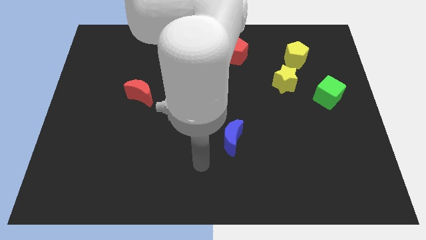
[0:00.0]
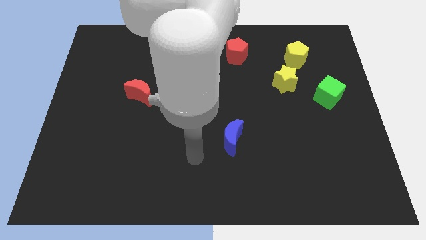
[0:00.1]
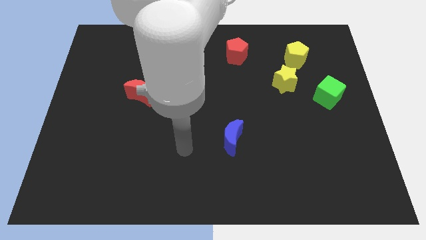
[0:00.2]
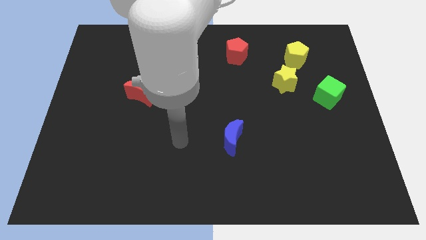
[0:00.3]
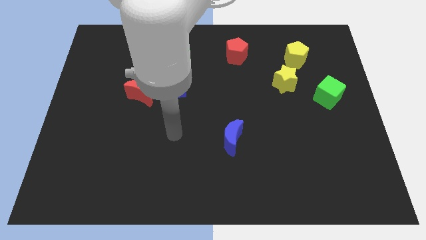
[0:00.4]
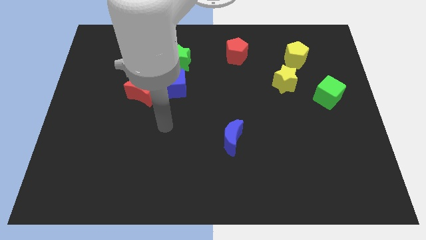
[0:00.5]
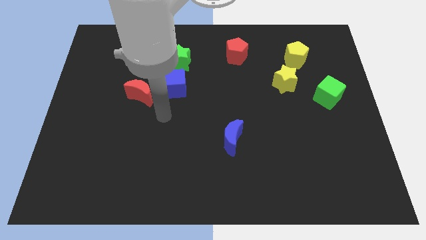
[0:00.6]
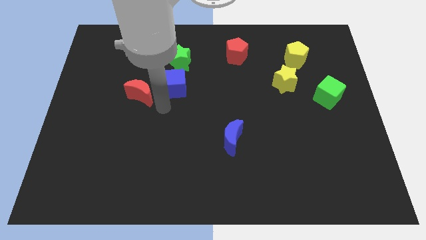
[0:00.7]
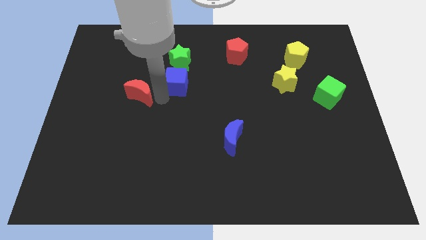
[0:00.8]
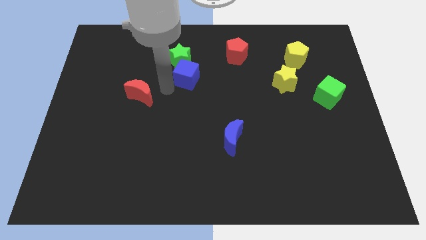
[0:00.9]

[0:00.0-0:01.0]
move the red moon away from the blue cube

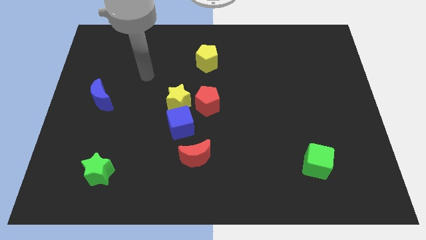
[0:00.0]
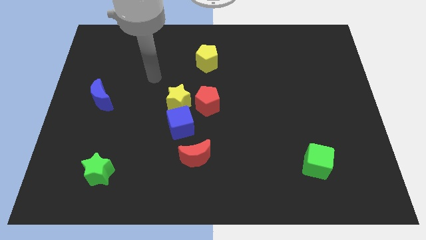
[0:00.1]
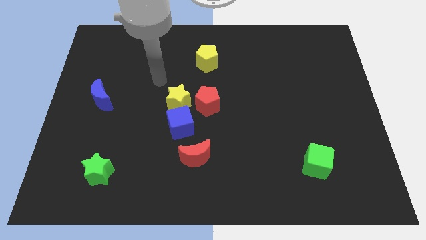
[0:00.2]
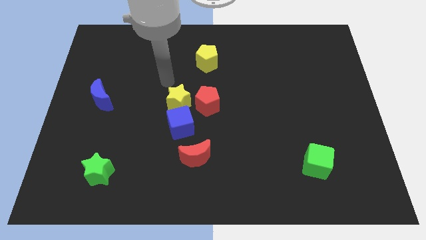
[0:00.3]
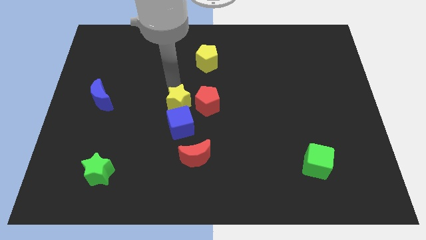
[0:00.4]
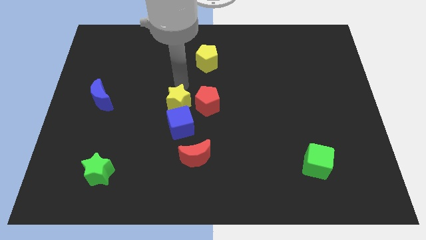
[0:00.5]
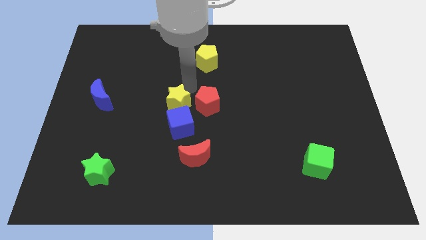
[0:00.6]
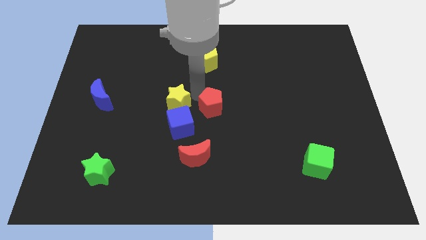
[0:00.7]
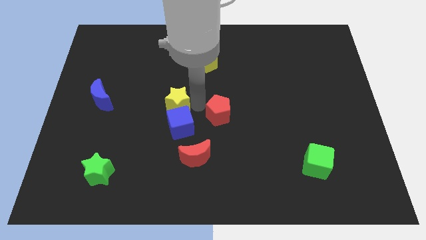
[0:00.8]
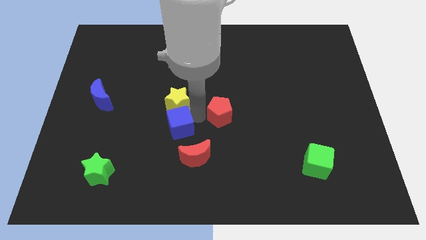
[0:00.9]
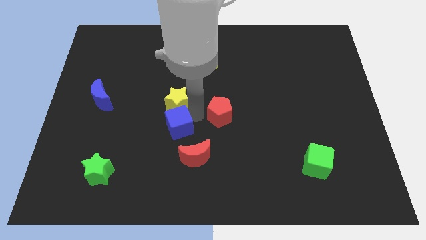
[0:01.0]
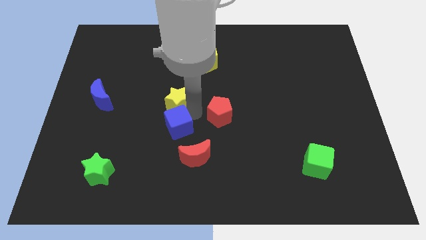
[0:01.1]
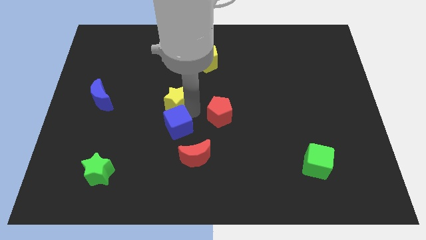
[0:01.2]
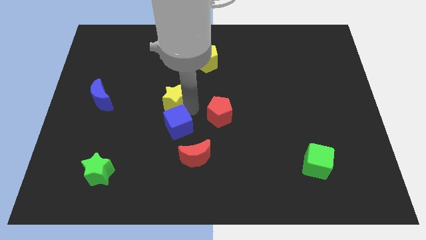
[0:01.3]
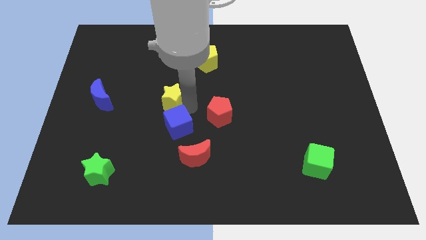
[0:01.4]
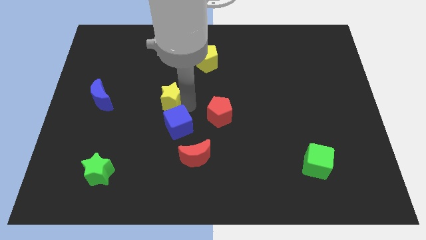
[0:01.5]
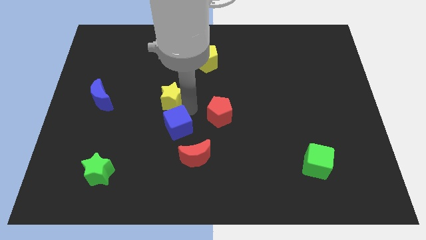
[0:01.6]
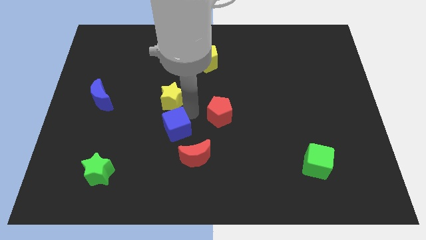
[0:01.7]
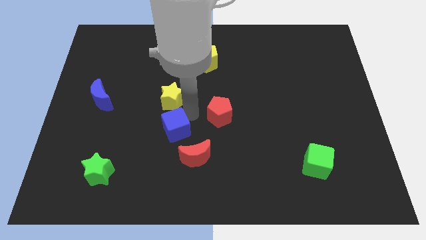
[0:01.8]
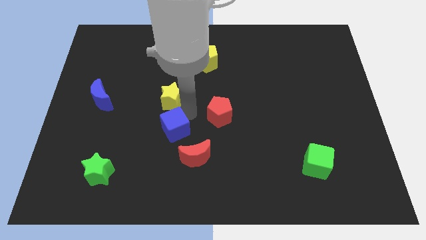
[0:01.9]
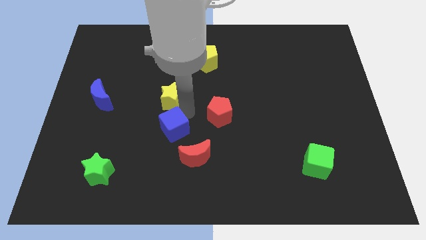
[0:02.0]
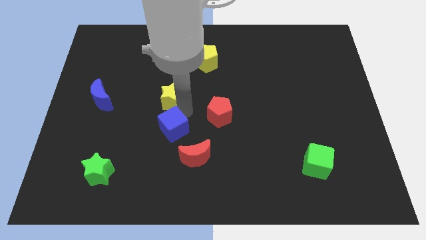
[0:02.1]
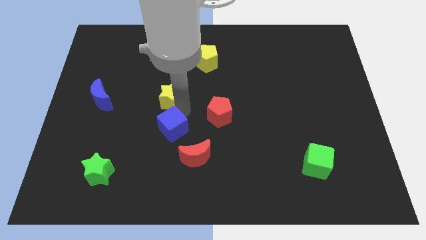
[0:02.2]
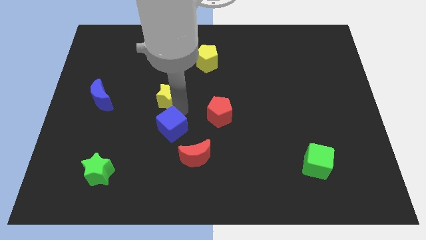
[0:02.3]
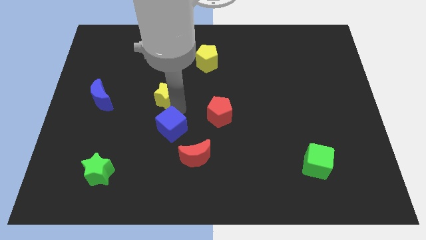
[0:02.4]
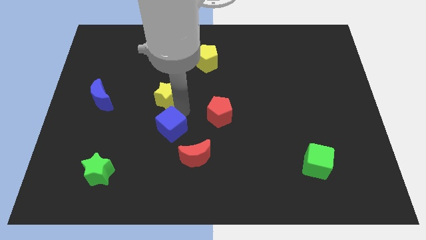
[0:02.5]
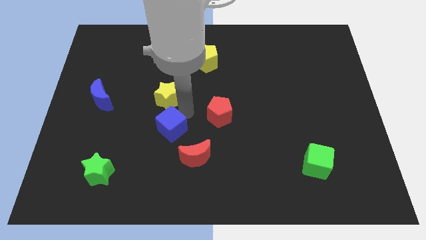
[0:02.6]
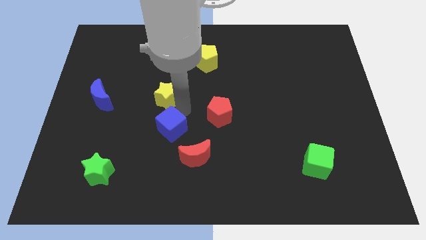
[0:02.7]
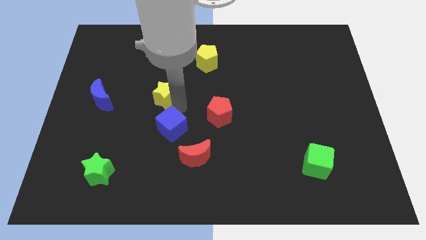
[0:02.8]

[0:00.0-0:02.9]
separate the yellow star from the blue cube and red pentagon

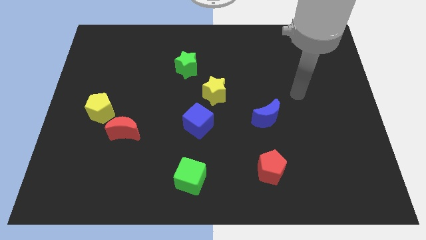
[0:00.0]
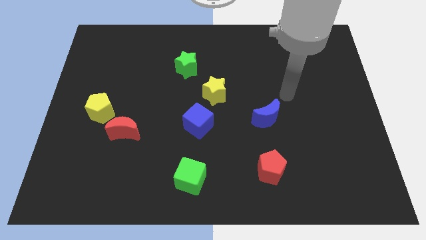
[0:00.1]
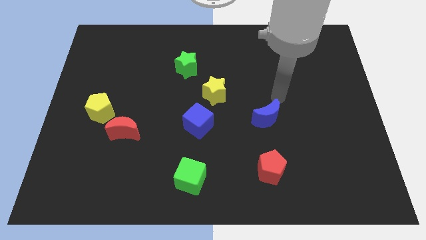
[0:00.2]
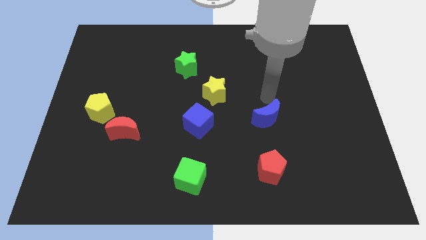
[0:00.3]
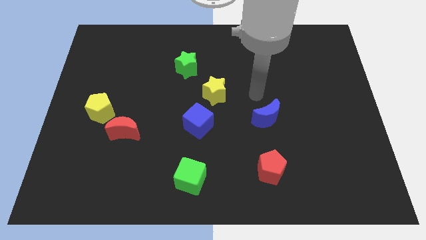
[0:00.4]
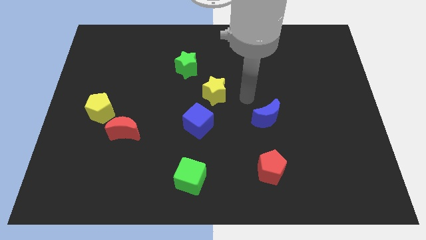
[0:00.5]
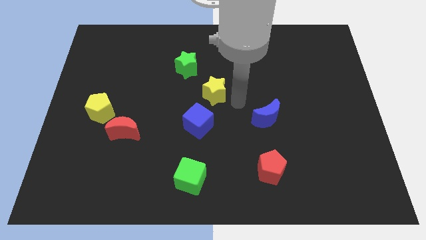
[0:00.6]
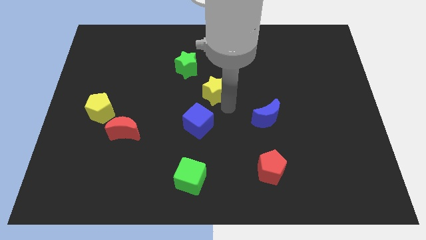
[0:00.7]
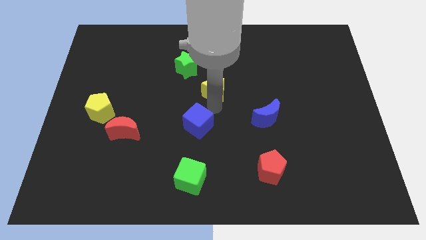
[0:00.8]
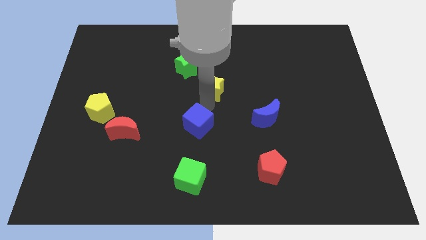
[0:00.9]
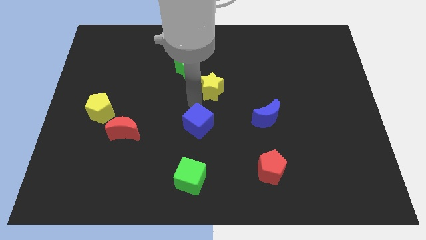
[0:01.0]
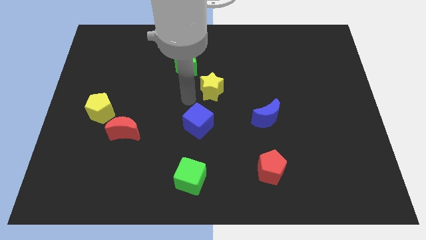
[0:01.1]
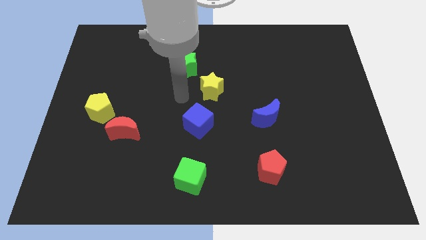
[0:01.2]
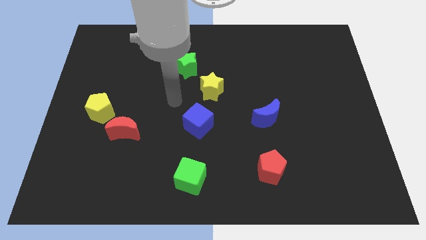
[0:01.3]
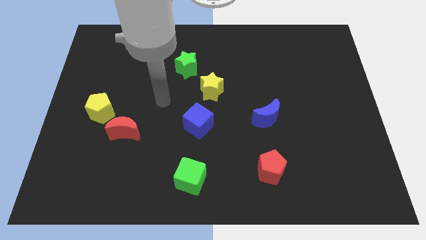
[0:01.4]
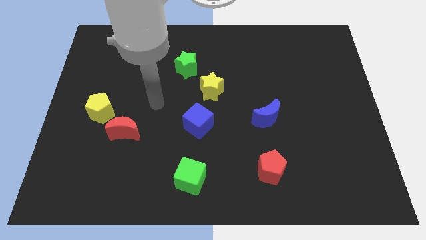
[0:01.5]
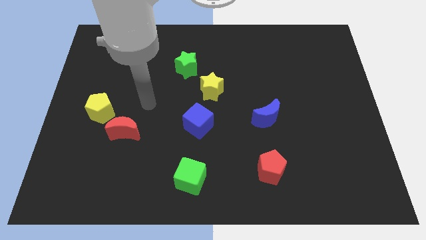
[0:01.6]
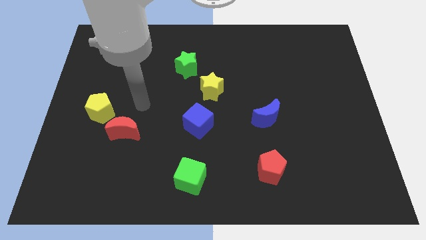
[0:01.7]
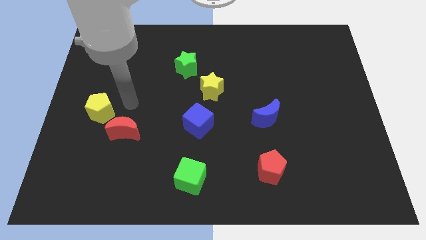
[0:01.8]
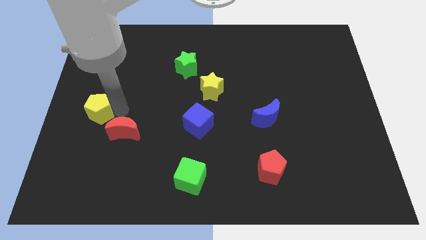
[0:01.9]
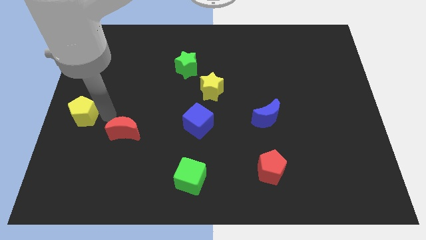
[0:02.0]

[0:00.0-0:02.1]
pull the red moon apart from the yellow pentagon

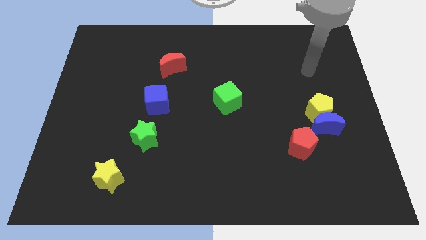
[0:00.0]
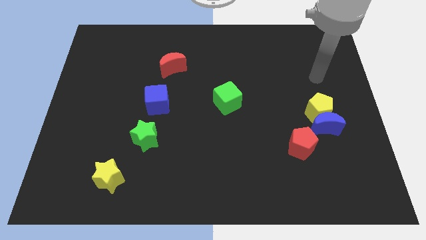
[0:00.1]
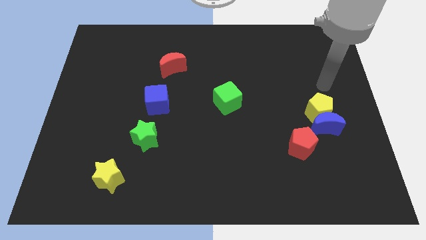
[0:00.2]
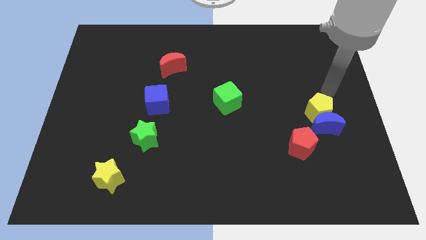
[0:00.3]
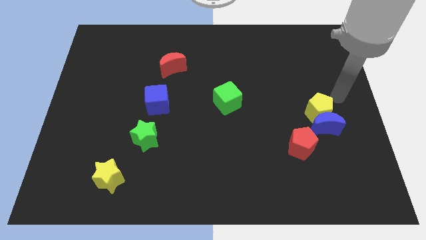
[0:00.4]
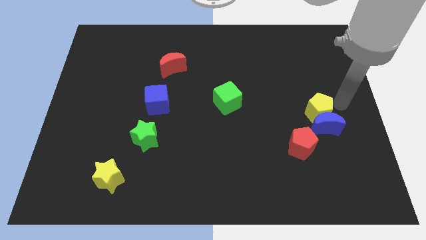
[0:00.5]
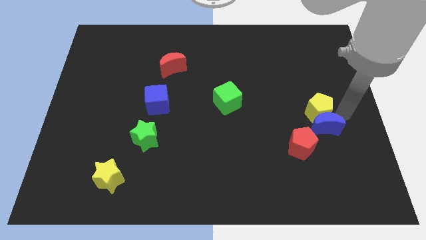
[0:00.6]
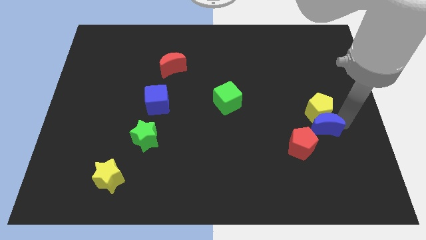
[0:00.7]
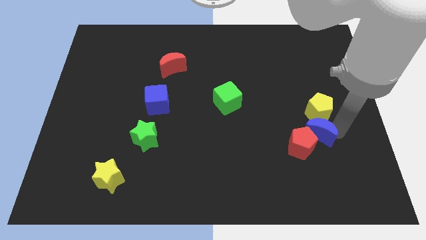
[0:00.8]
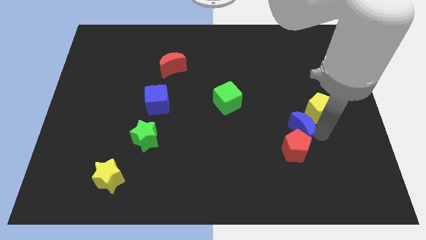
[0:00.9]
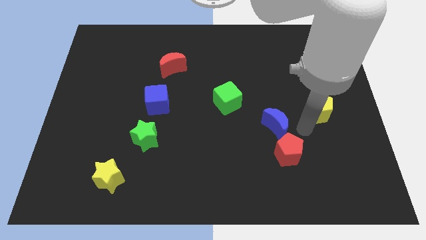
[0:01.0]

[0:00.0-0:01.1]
separate the yellow pentagon from the blue moon

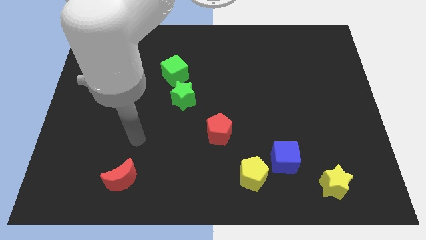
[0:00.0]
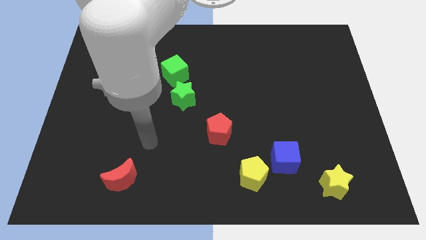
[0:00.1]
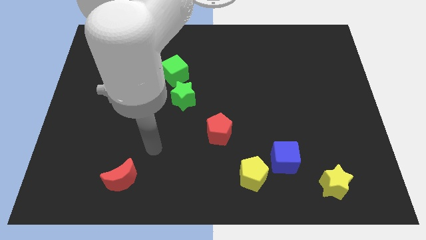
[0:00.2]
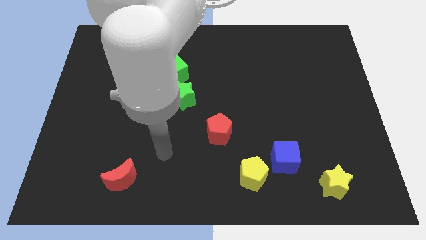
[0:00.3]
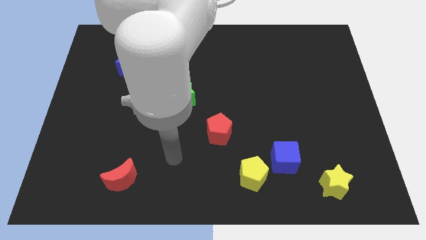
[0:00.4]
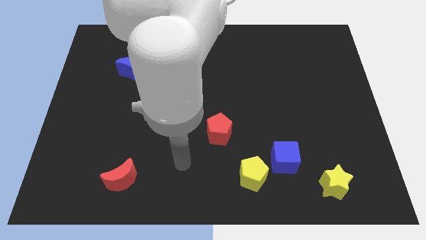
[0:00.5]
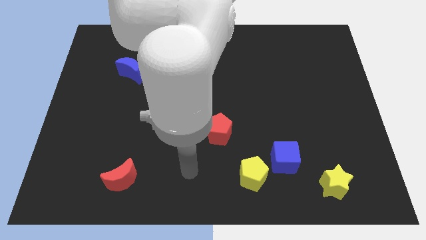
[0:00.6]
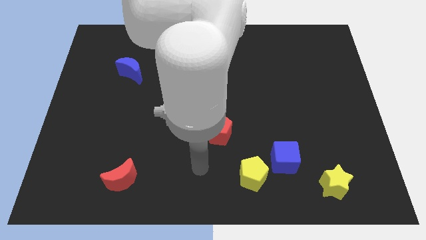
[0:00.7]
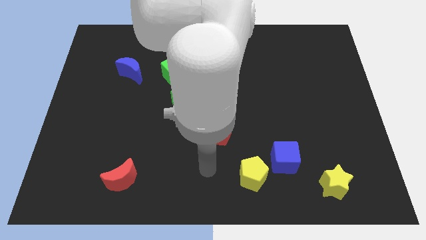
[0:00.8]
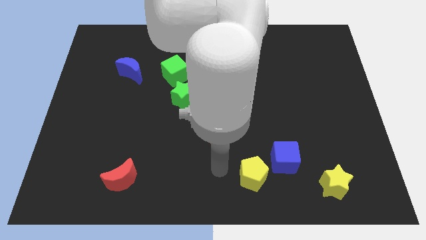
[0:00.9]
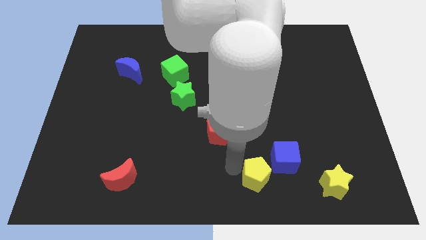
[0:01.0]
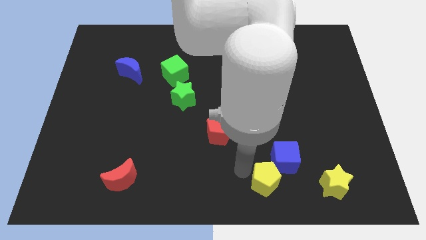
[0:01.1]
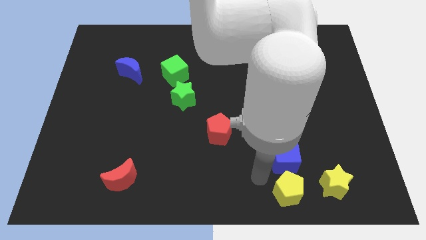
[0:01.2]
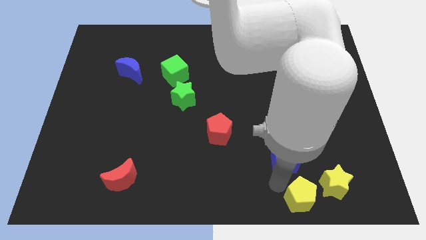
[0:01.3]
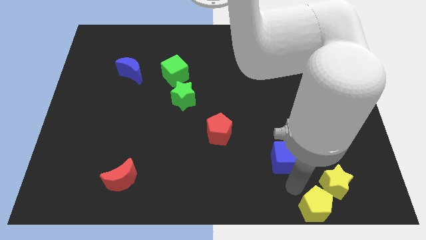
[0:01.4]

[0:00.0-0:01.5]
pull the blue cube apart from the yellow pentagon

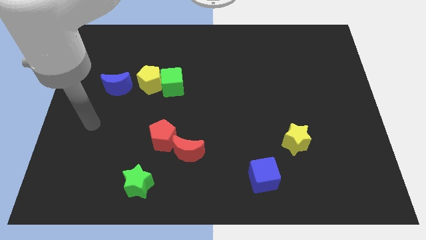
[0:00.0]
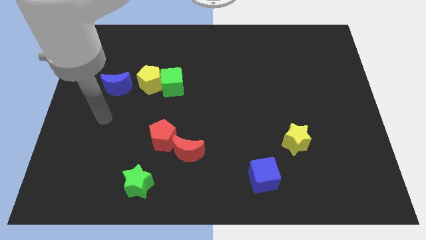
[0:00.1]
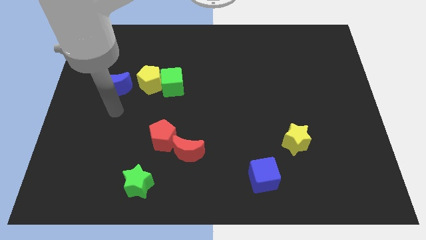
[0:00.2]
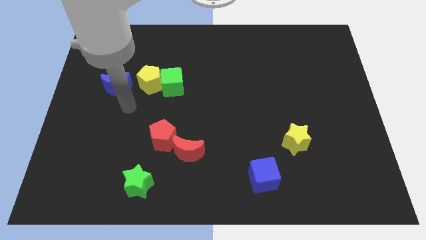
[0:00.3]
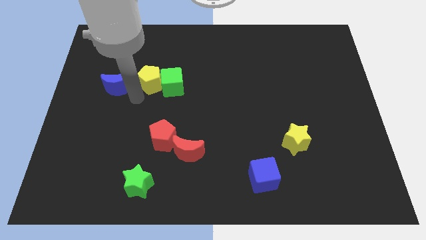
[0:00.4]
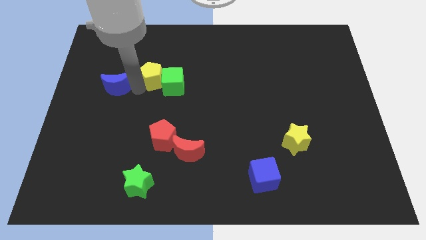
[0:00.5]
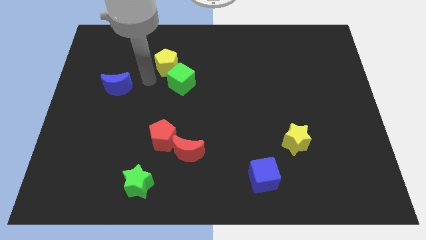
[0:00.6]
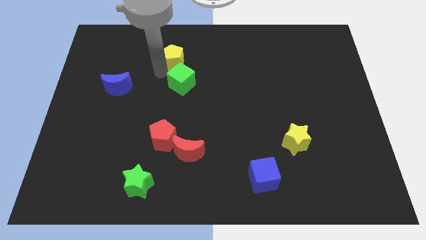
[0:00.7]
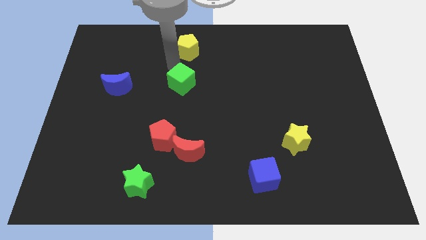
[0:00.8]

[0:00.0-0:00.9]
pull the green cube apart from the yellow pentagon
